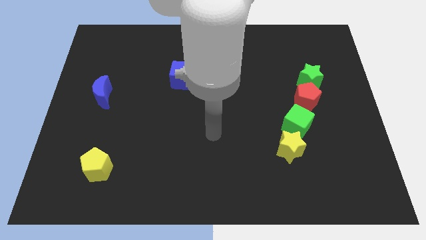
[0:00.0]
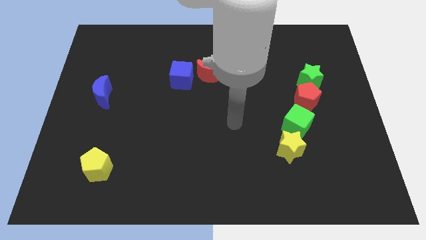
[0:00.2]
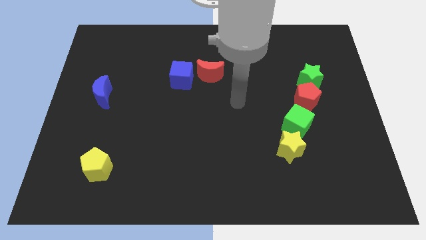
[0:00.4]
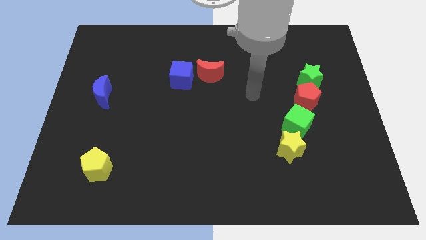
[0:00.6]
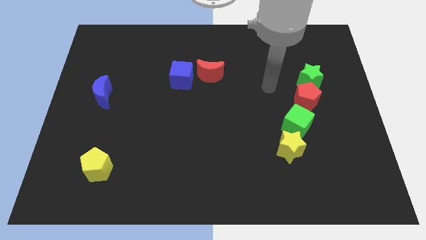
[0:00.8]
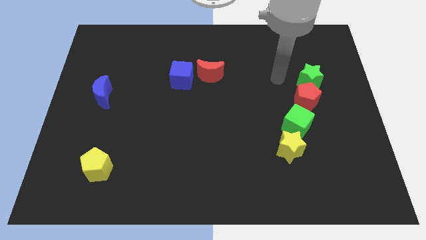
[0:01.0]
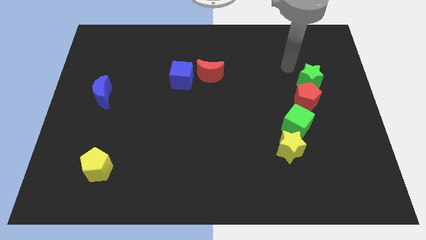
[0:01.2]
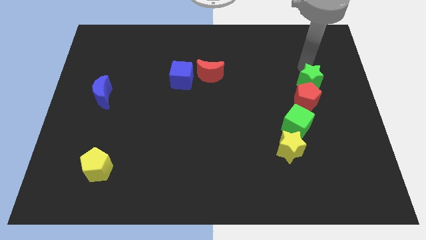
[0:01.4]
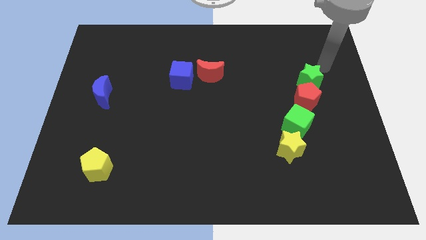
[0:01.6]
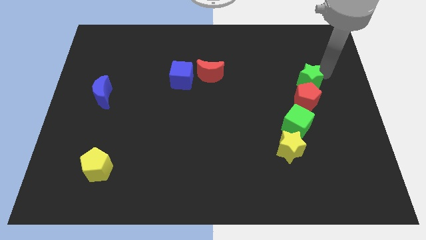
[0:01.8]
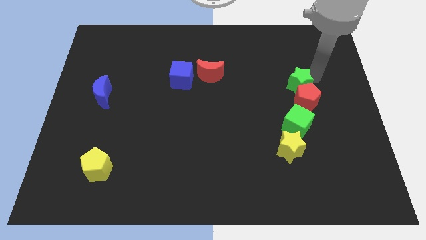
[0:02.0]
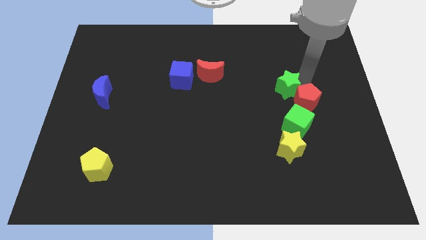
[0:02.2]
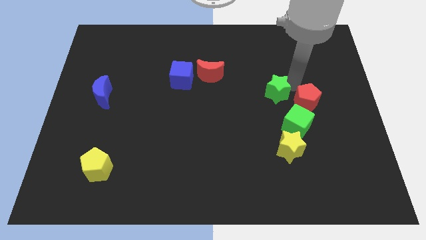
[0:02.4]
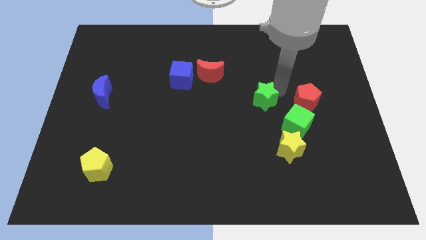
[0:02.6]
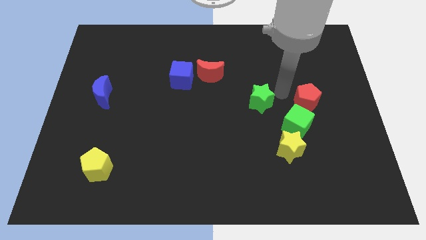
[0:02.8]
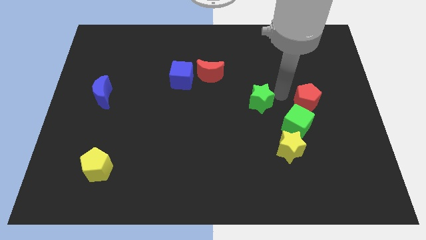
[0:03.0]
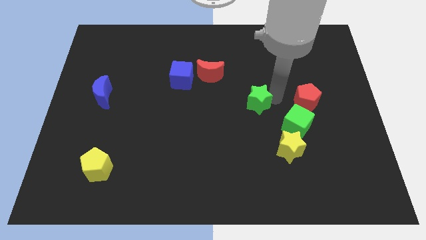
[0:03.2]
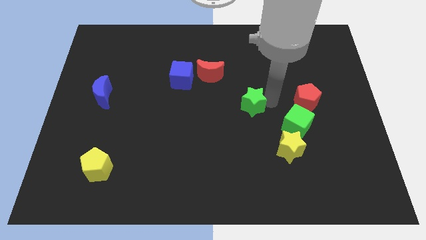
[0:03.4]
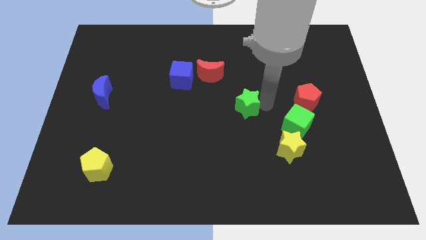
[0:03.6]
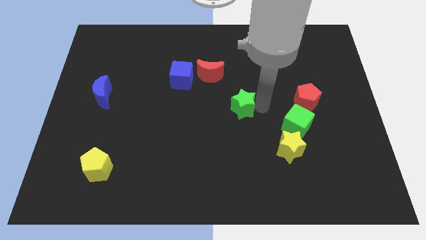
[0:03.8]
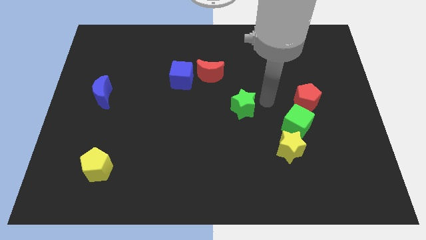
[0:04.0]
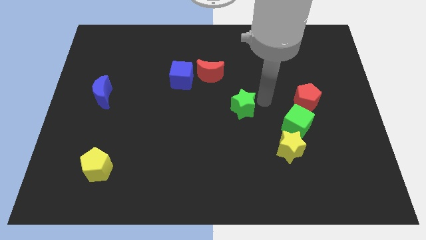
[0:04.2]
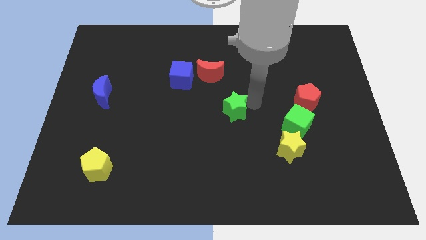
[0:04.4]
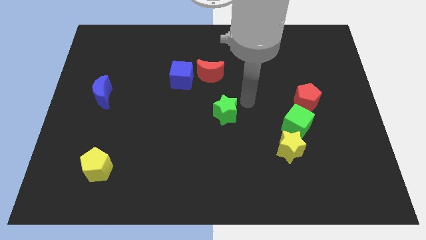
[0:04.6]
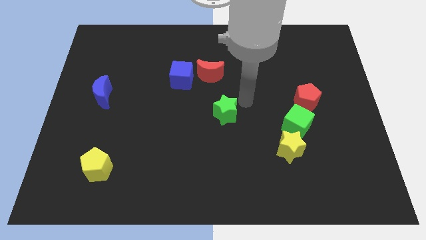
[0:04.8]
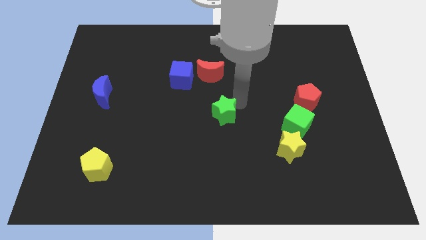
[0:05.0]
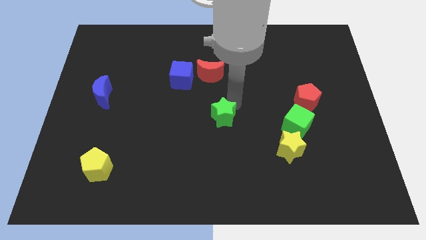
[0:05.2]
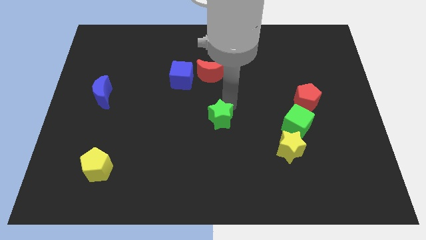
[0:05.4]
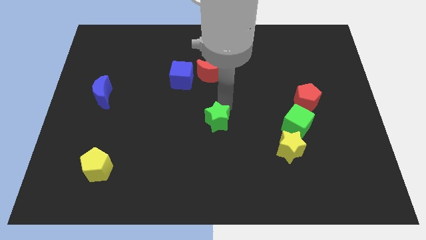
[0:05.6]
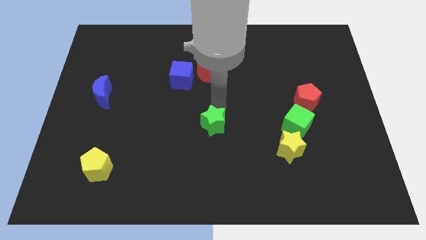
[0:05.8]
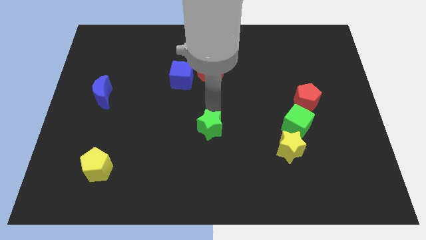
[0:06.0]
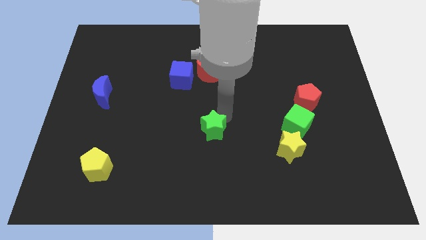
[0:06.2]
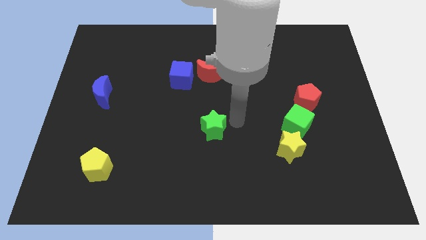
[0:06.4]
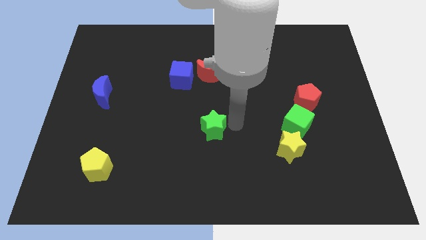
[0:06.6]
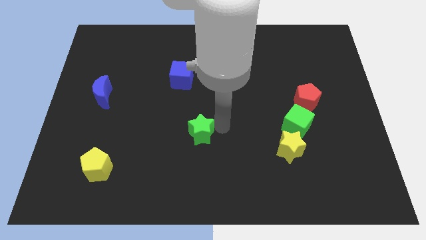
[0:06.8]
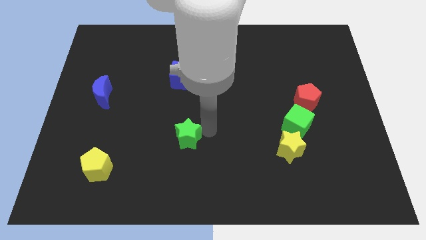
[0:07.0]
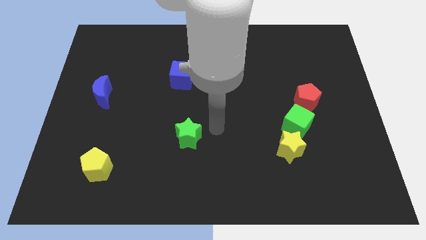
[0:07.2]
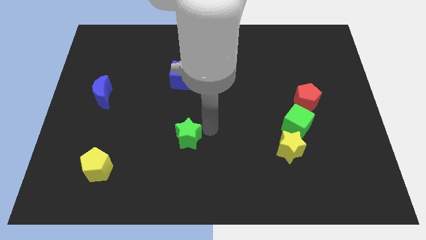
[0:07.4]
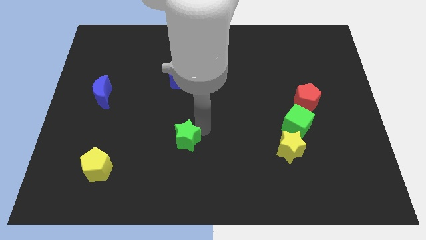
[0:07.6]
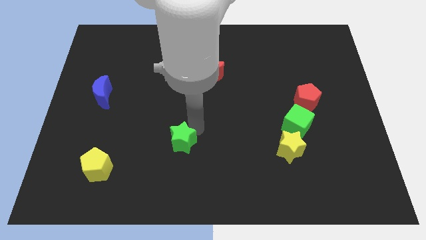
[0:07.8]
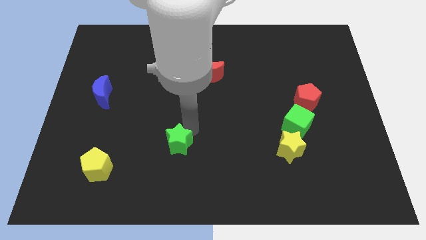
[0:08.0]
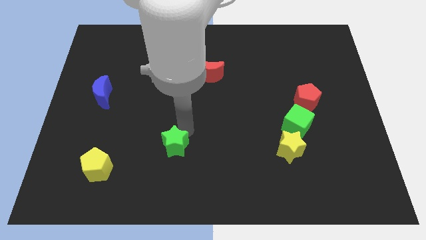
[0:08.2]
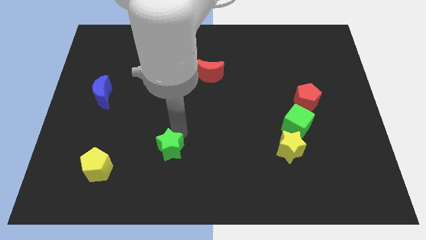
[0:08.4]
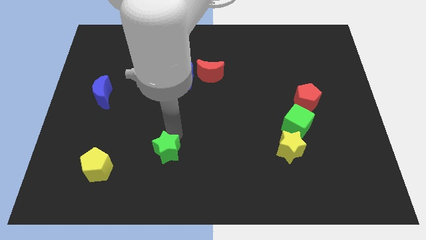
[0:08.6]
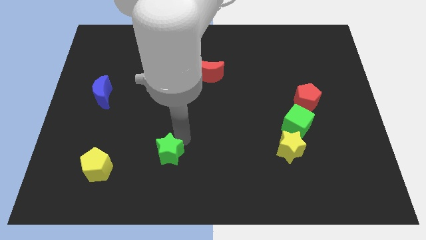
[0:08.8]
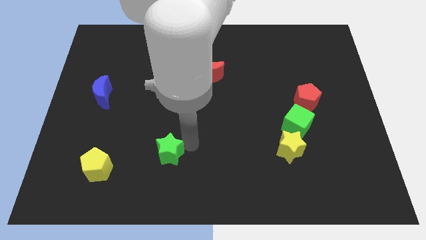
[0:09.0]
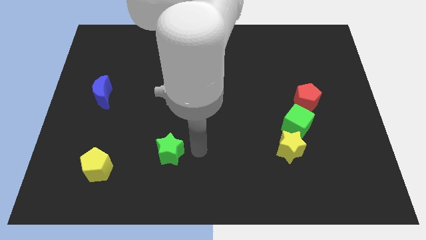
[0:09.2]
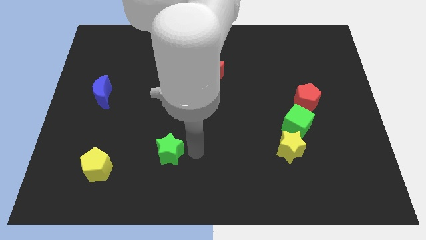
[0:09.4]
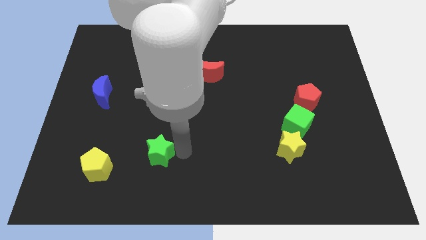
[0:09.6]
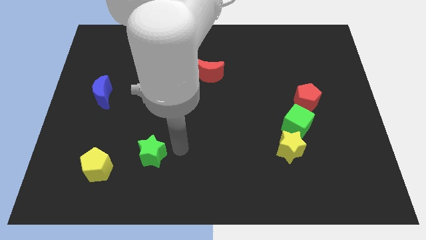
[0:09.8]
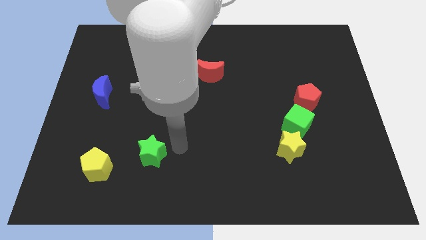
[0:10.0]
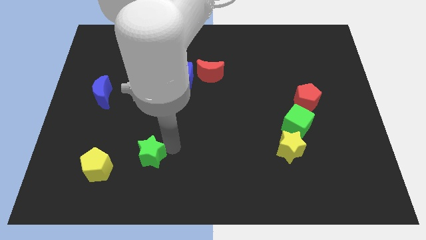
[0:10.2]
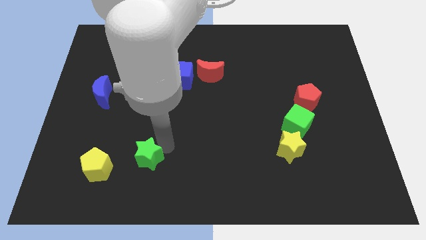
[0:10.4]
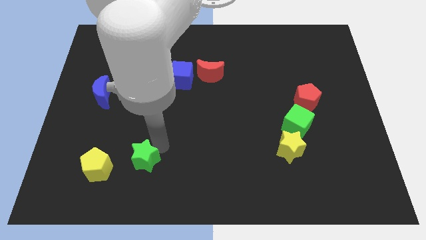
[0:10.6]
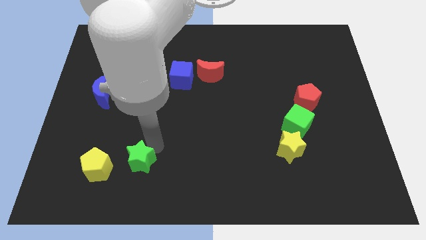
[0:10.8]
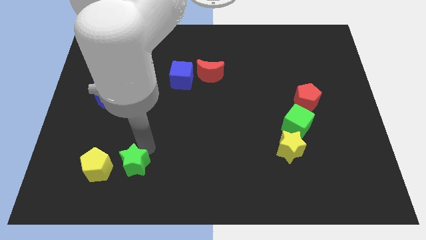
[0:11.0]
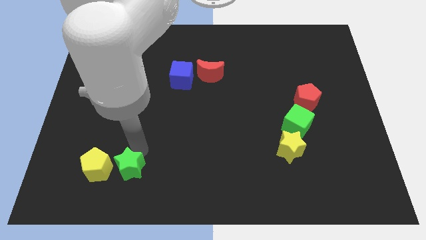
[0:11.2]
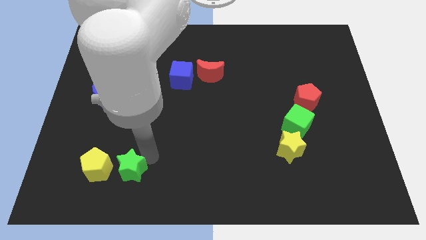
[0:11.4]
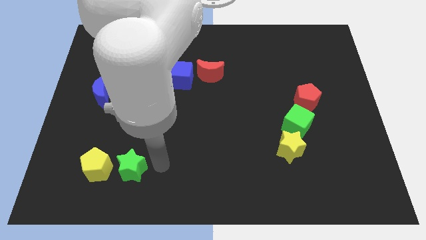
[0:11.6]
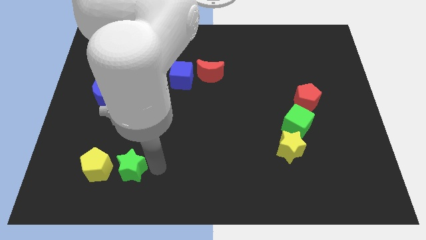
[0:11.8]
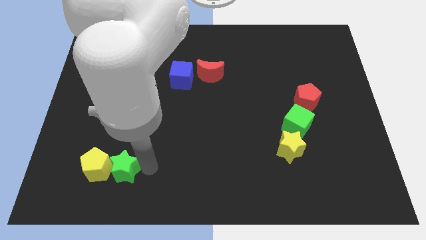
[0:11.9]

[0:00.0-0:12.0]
move the green star next to the yellow pentagon

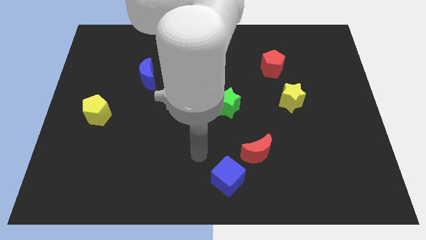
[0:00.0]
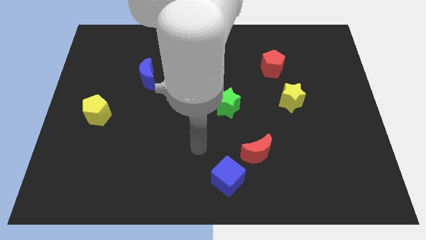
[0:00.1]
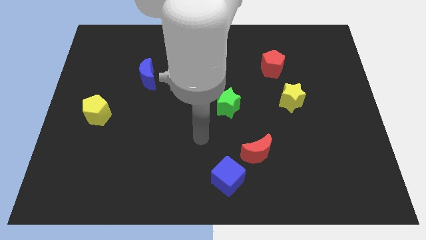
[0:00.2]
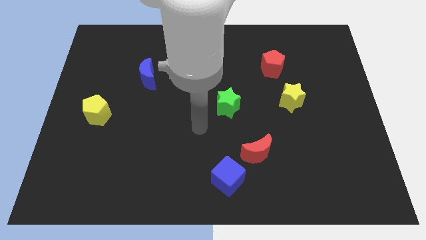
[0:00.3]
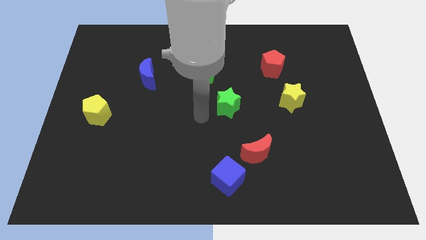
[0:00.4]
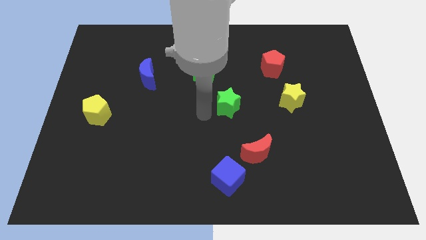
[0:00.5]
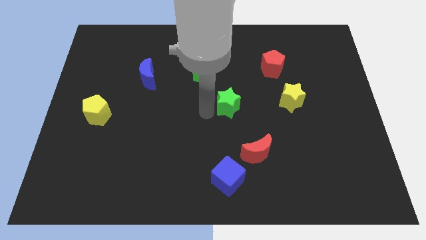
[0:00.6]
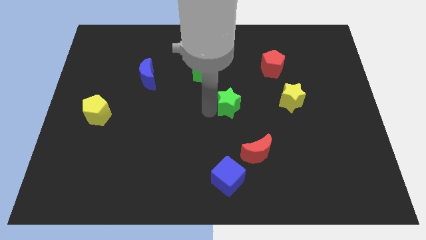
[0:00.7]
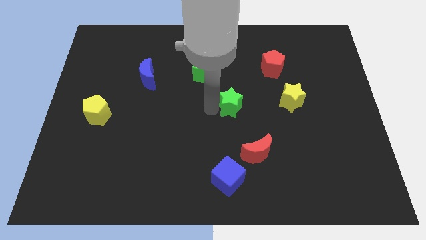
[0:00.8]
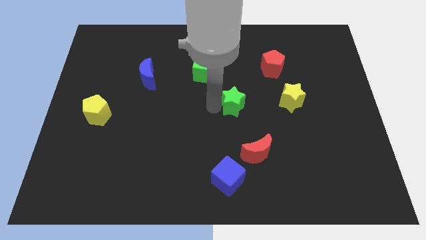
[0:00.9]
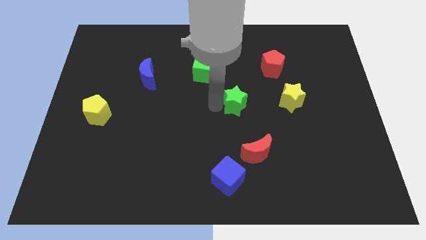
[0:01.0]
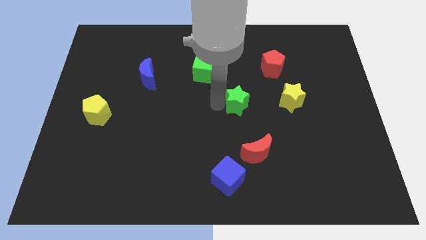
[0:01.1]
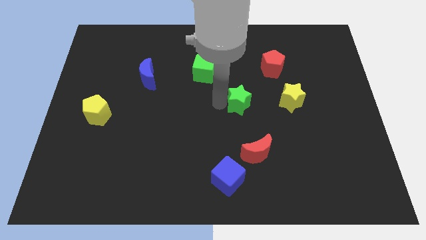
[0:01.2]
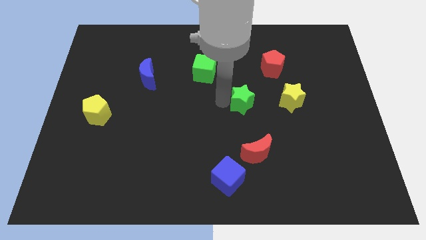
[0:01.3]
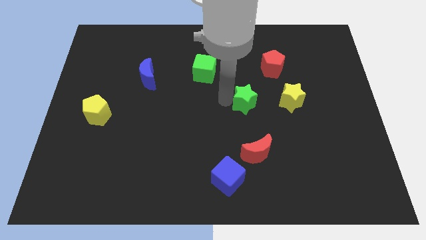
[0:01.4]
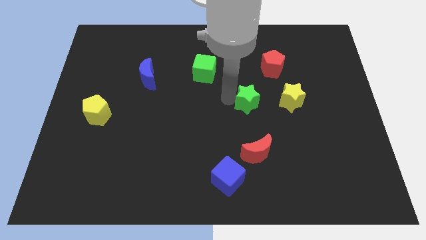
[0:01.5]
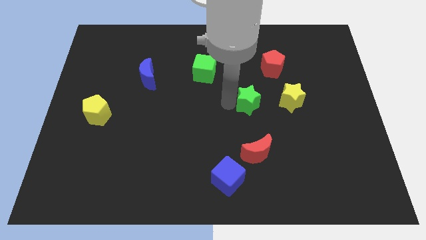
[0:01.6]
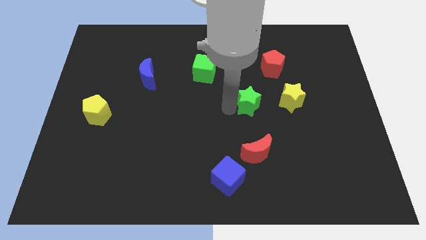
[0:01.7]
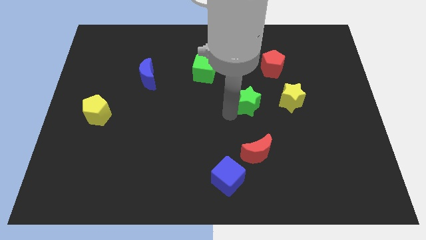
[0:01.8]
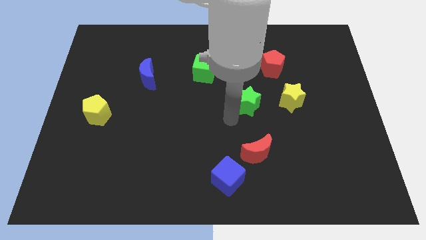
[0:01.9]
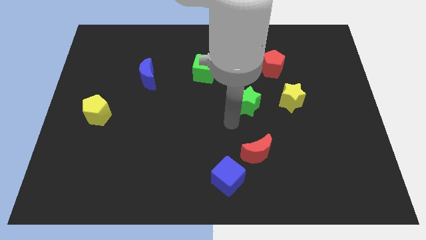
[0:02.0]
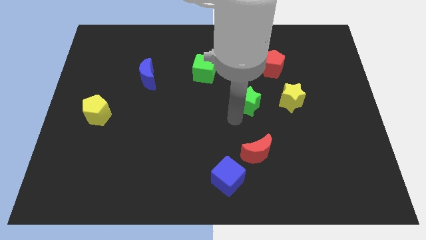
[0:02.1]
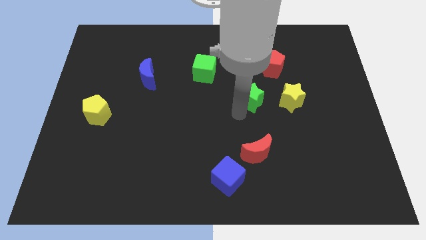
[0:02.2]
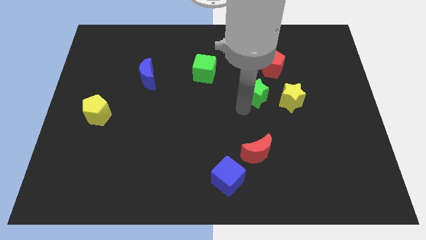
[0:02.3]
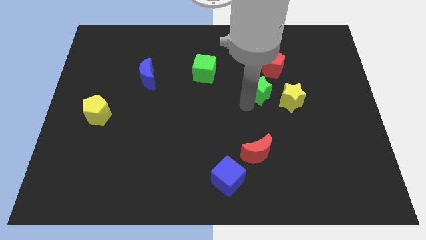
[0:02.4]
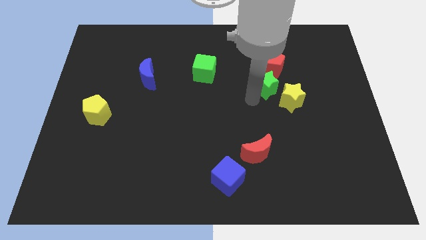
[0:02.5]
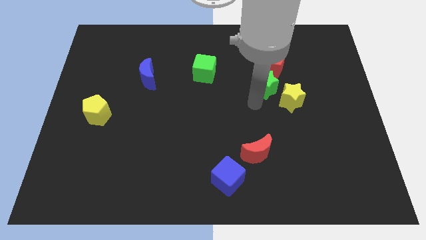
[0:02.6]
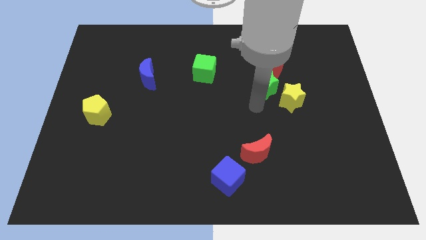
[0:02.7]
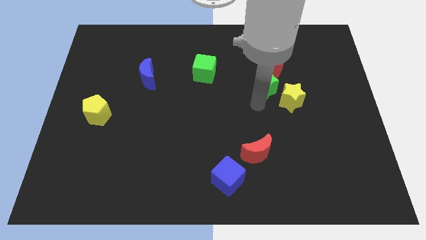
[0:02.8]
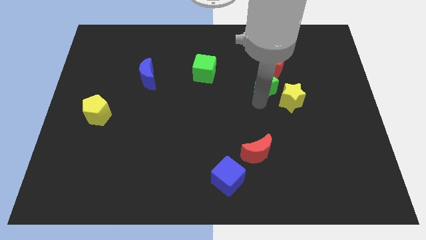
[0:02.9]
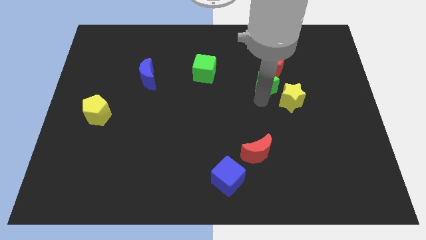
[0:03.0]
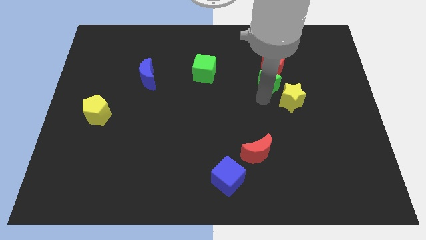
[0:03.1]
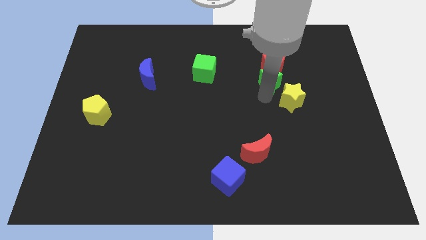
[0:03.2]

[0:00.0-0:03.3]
push the green star towards the red pentagon
